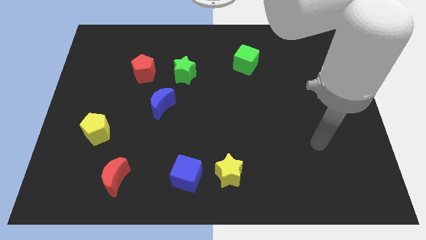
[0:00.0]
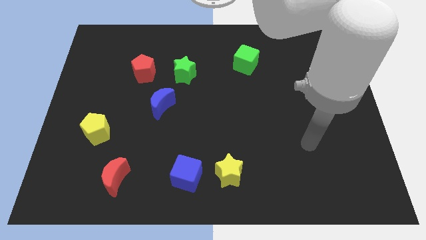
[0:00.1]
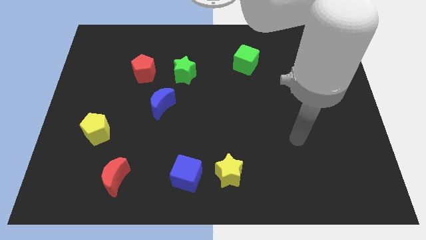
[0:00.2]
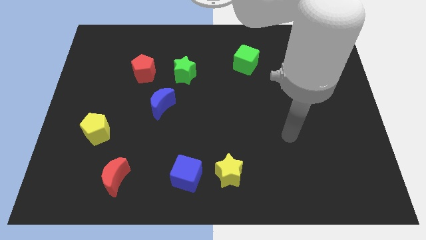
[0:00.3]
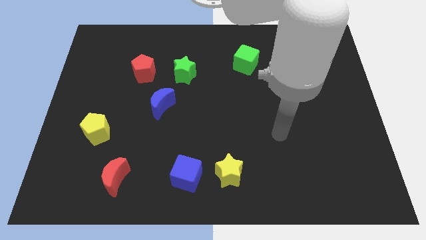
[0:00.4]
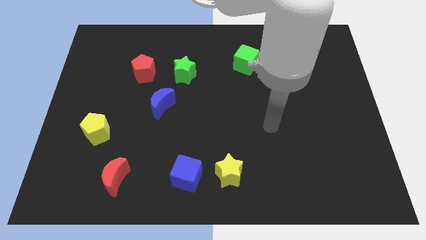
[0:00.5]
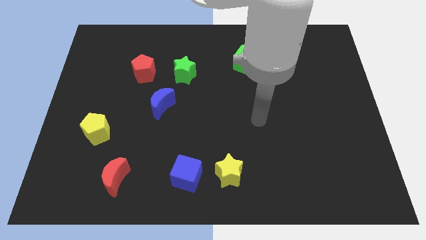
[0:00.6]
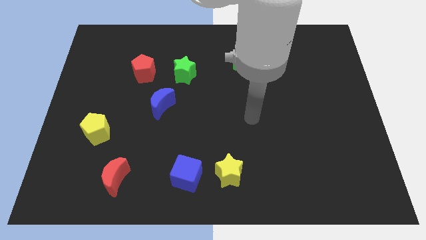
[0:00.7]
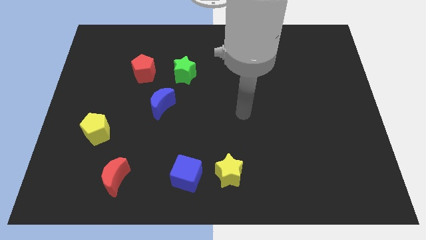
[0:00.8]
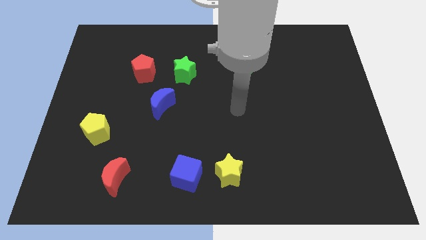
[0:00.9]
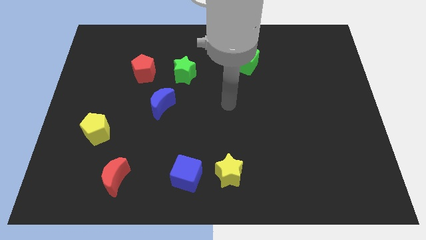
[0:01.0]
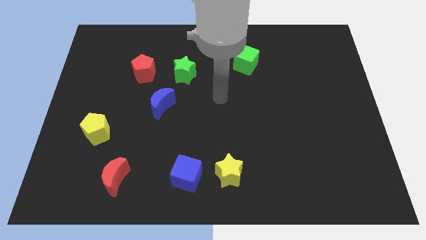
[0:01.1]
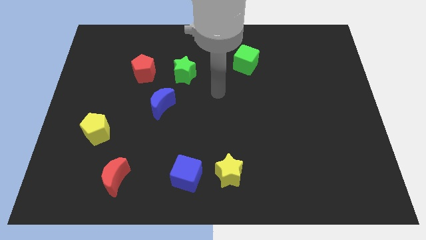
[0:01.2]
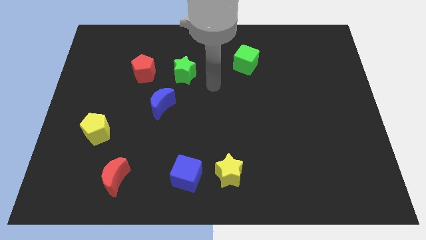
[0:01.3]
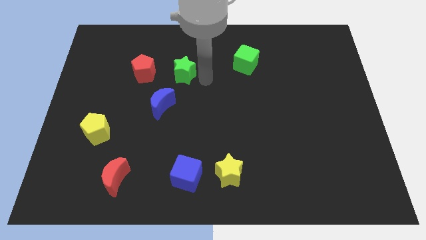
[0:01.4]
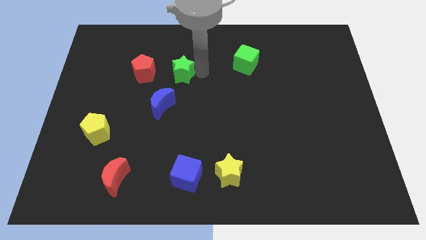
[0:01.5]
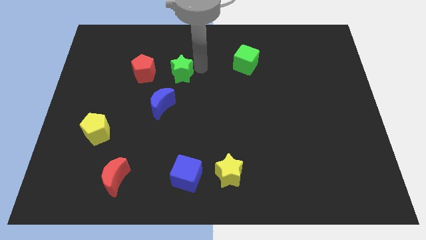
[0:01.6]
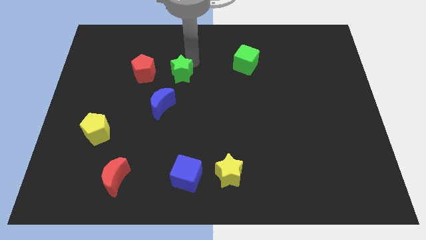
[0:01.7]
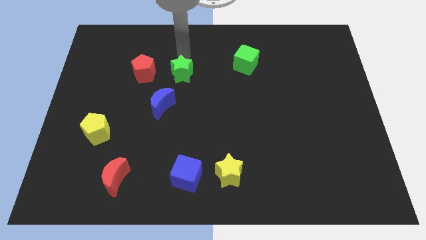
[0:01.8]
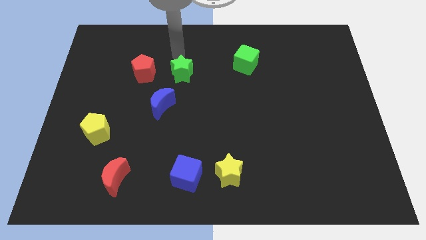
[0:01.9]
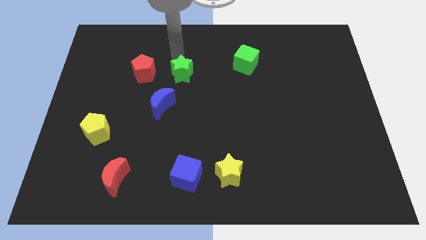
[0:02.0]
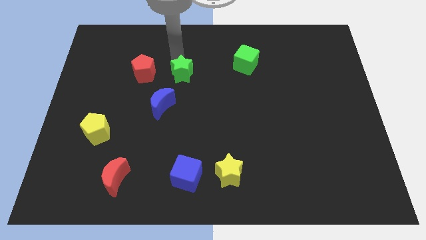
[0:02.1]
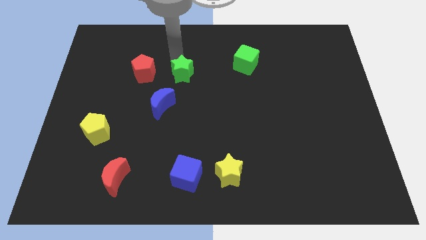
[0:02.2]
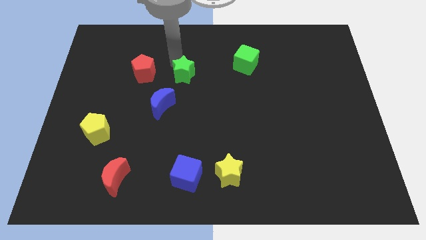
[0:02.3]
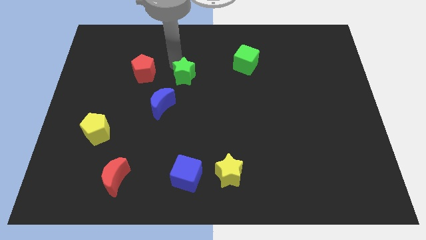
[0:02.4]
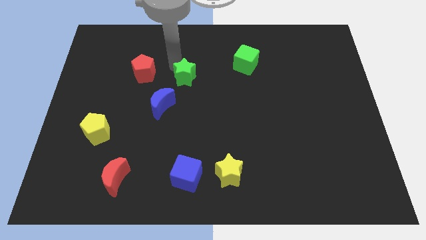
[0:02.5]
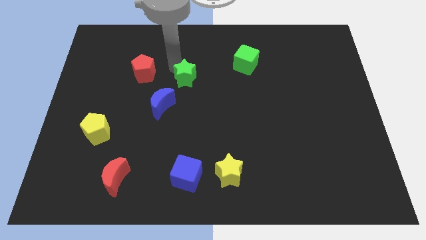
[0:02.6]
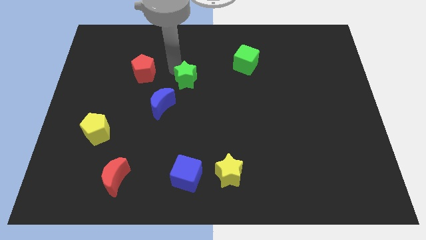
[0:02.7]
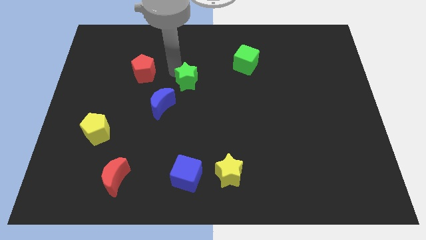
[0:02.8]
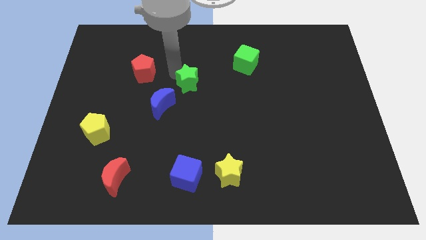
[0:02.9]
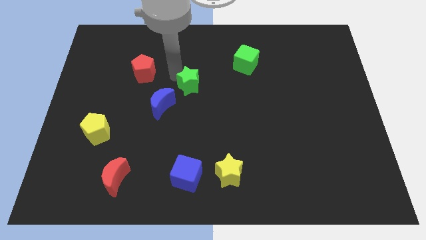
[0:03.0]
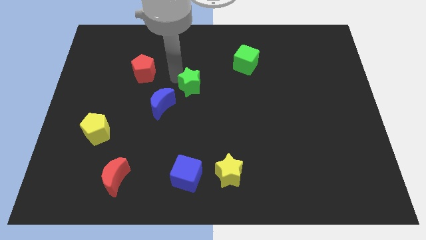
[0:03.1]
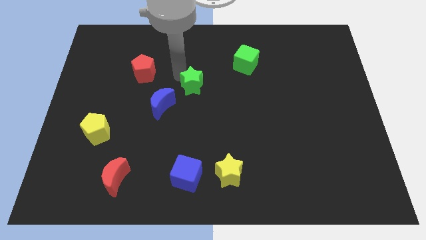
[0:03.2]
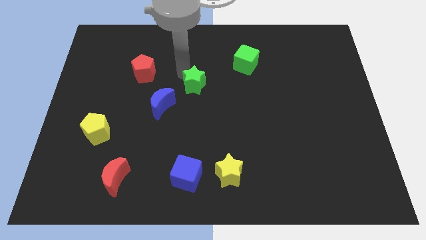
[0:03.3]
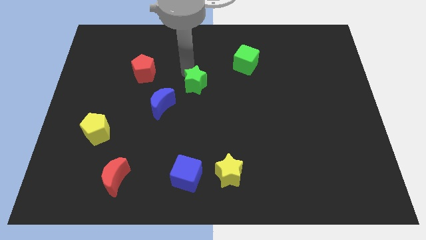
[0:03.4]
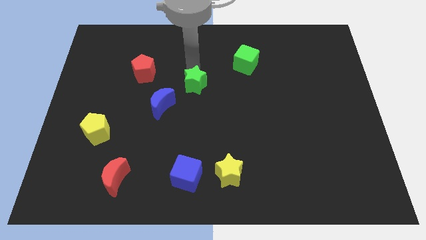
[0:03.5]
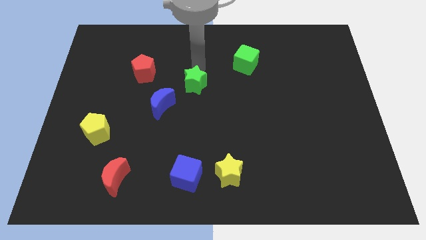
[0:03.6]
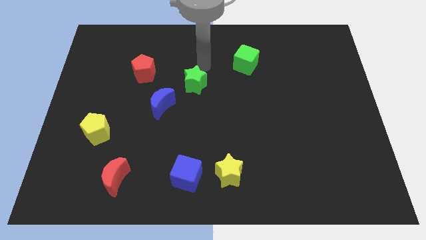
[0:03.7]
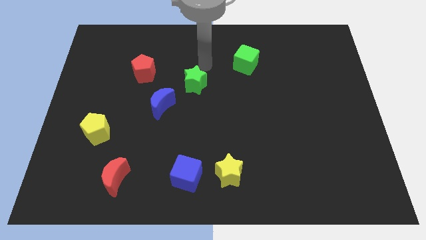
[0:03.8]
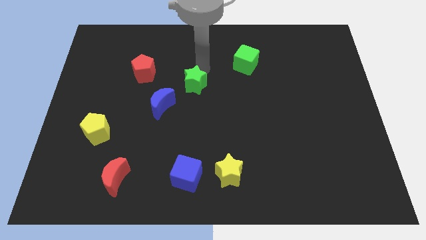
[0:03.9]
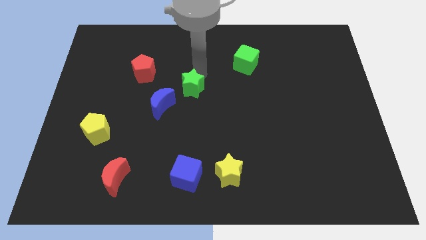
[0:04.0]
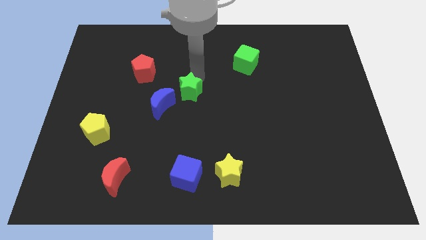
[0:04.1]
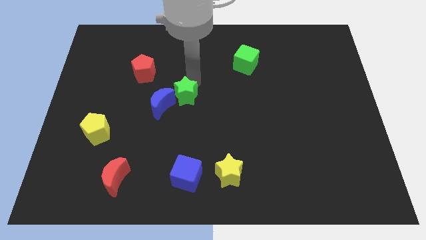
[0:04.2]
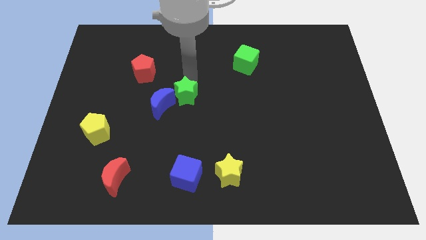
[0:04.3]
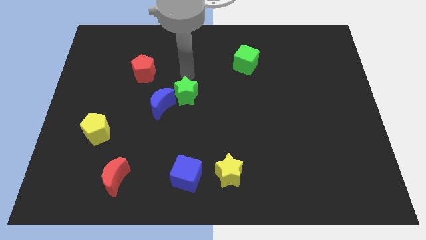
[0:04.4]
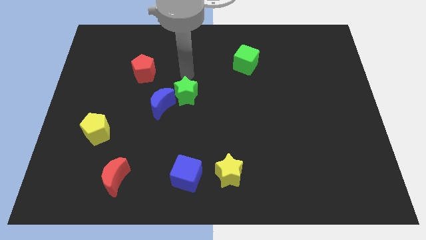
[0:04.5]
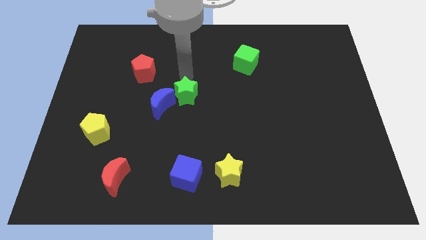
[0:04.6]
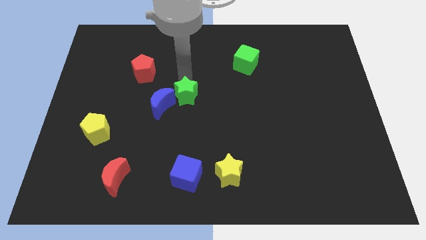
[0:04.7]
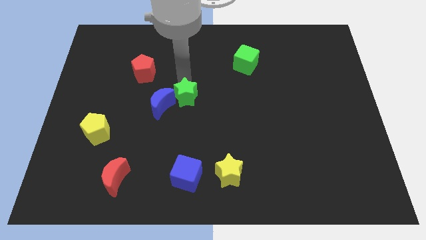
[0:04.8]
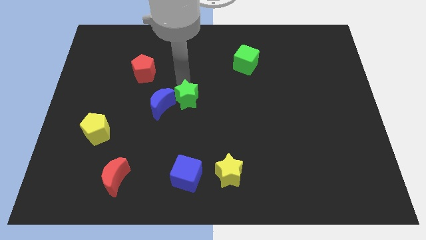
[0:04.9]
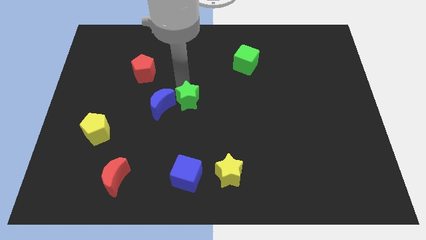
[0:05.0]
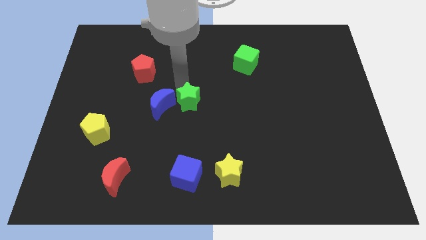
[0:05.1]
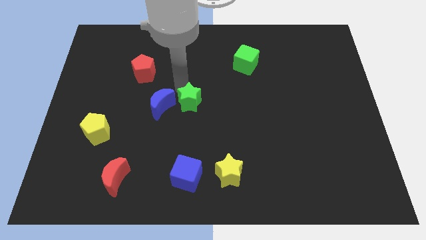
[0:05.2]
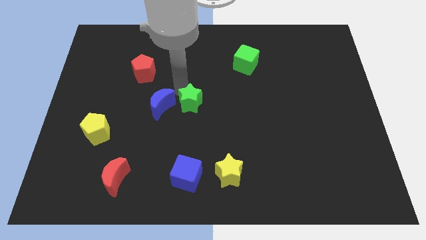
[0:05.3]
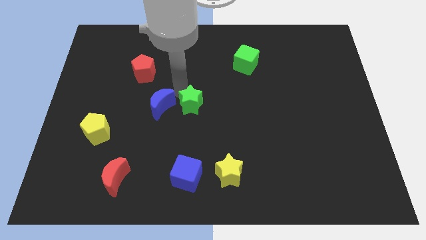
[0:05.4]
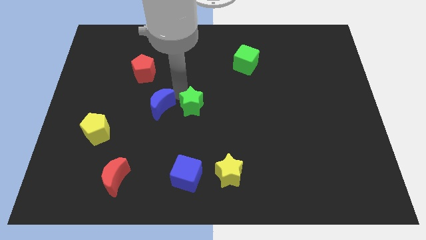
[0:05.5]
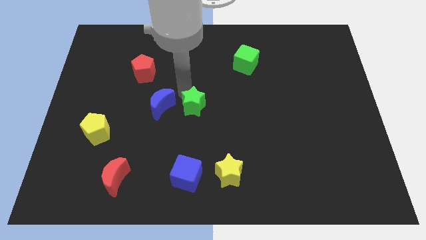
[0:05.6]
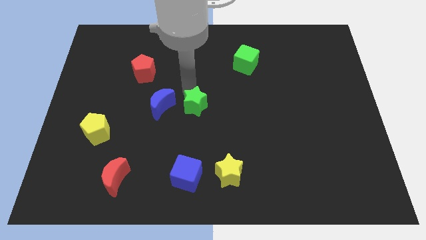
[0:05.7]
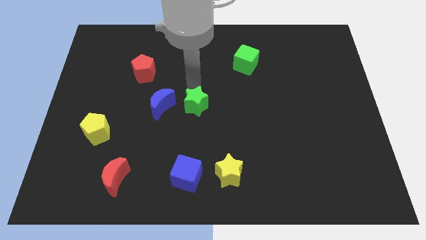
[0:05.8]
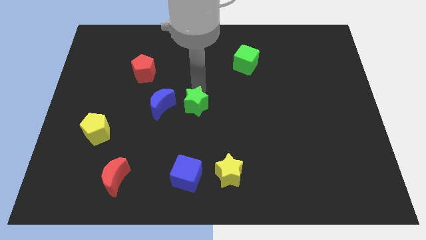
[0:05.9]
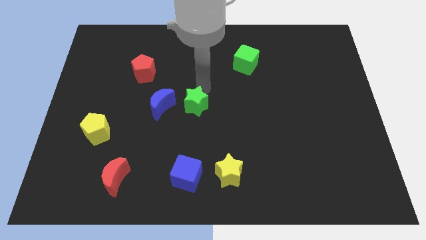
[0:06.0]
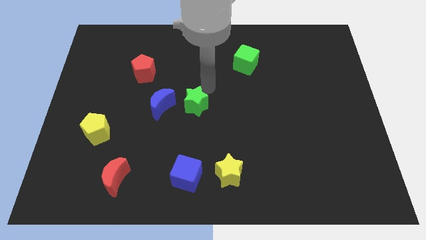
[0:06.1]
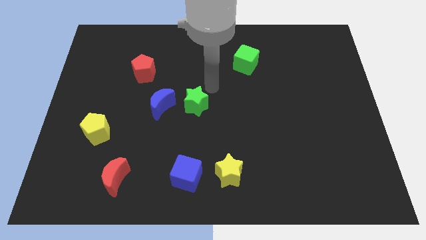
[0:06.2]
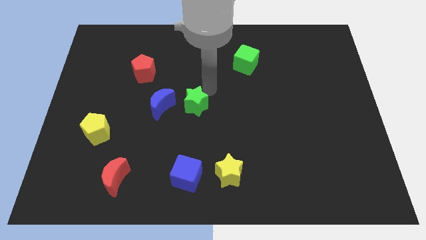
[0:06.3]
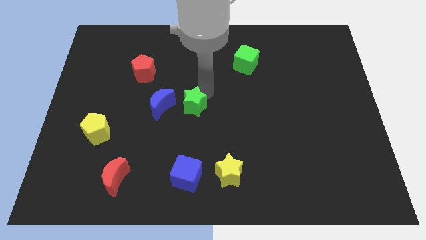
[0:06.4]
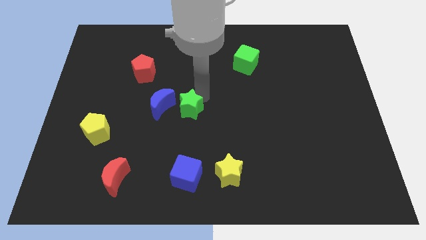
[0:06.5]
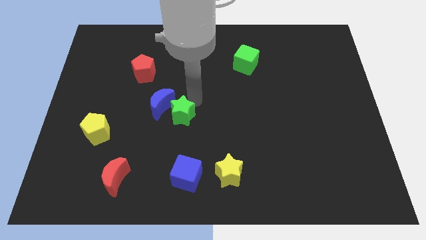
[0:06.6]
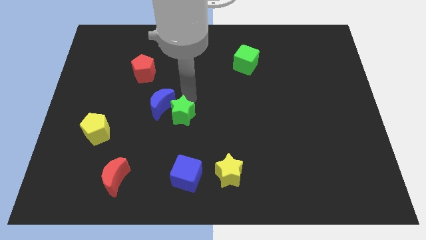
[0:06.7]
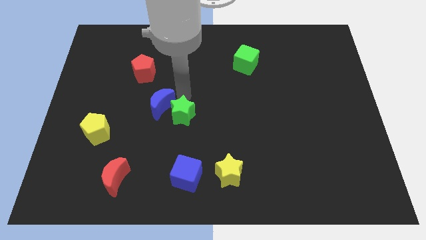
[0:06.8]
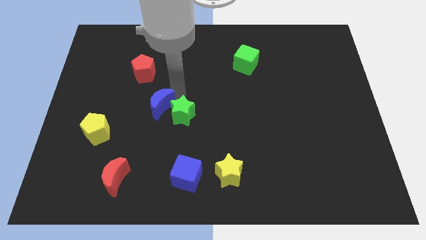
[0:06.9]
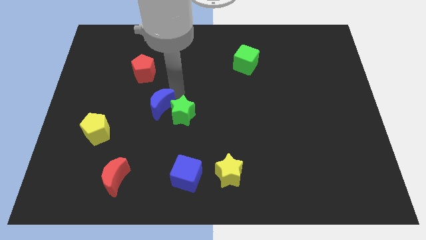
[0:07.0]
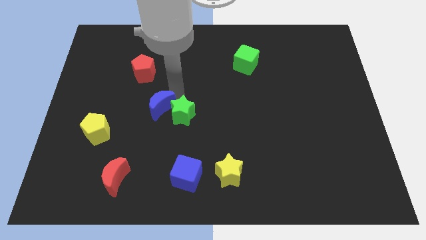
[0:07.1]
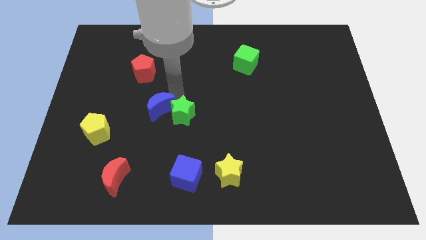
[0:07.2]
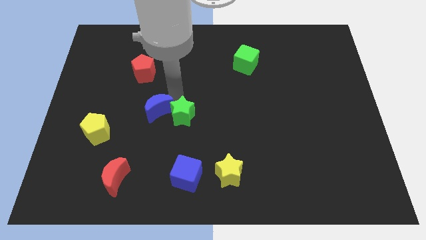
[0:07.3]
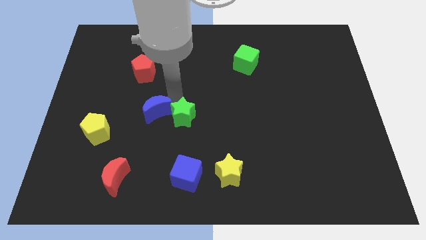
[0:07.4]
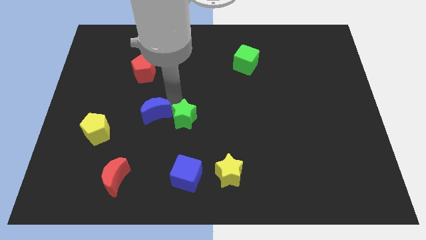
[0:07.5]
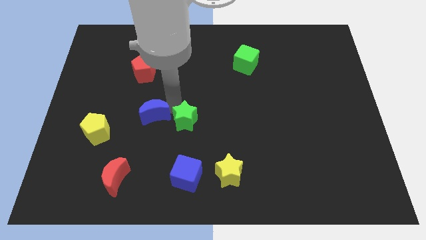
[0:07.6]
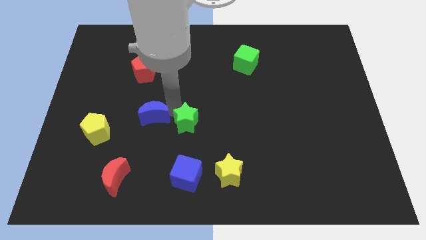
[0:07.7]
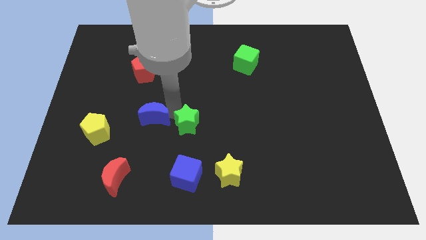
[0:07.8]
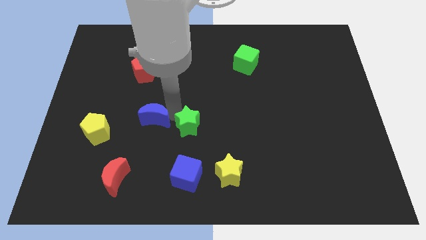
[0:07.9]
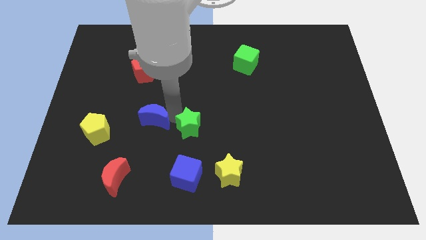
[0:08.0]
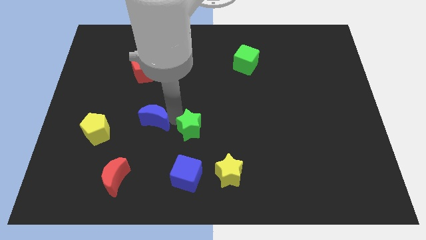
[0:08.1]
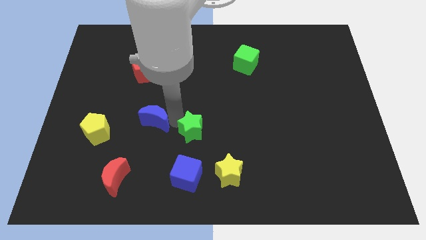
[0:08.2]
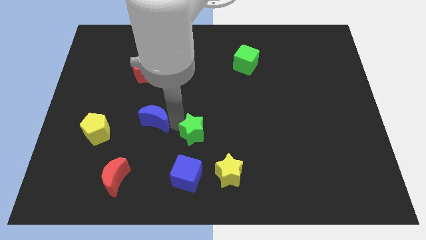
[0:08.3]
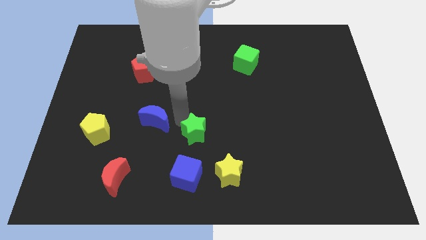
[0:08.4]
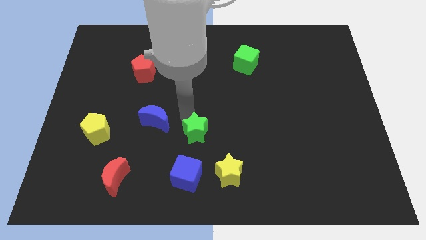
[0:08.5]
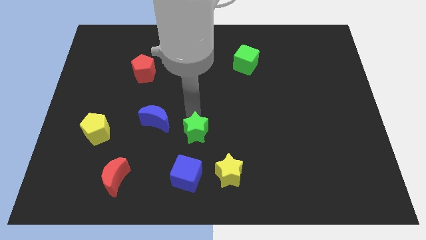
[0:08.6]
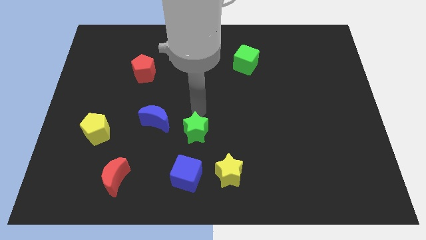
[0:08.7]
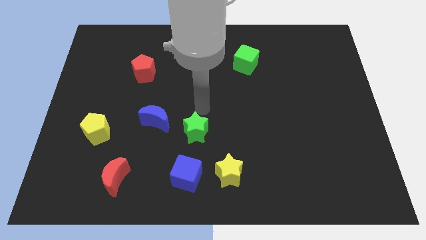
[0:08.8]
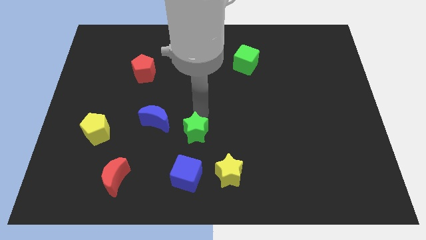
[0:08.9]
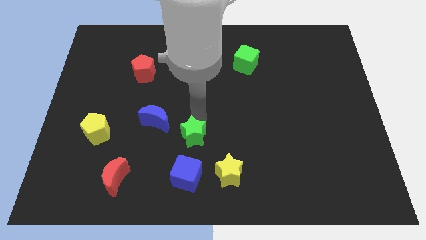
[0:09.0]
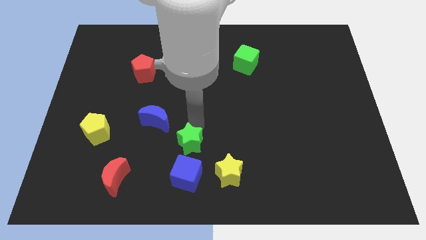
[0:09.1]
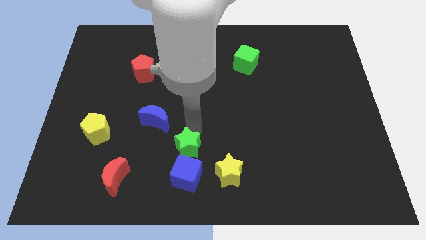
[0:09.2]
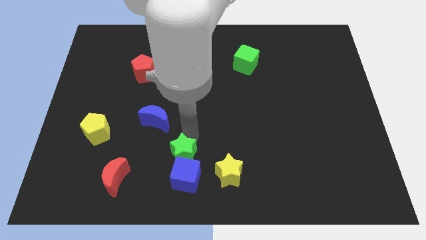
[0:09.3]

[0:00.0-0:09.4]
move the green star towards the blue cube
